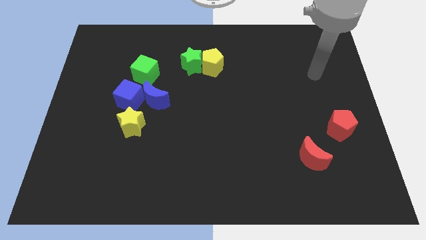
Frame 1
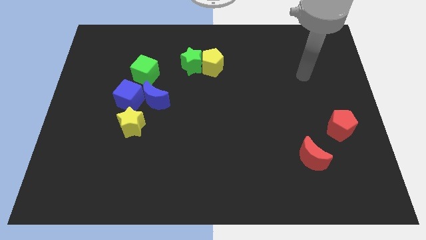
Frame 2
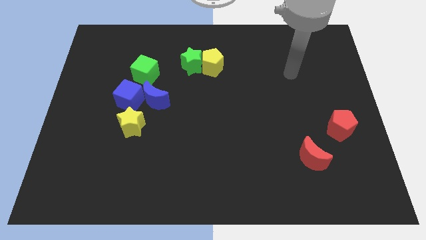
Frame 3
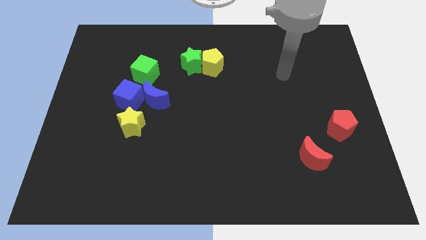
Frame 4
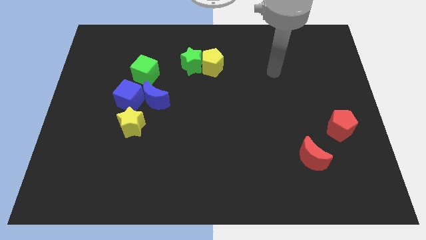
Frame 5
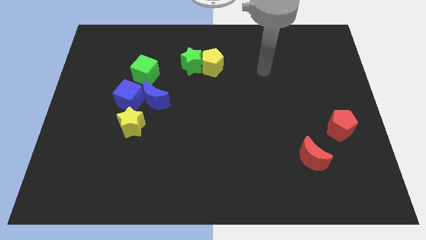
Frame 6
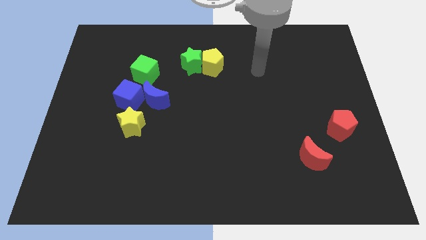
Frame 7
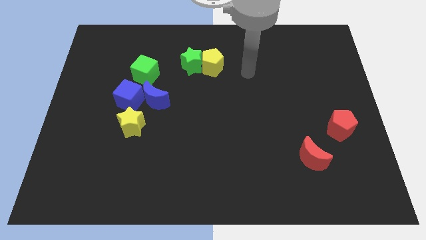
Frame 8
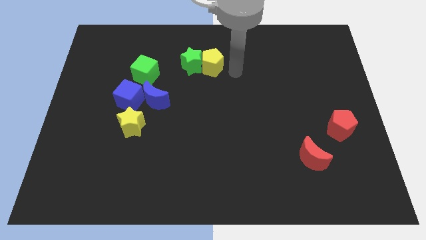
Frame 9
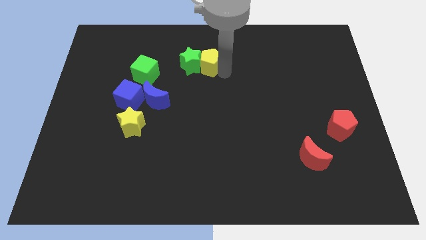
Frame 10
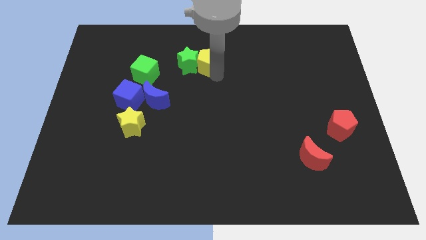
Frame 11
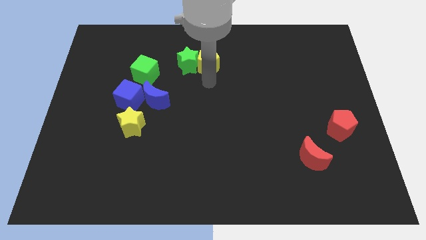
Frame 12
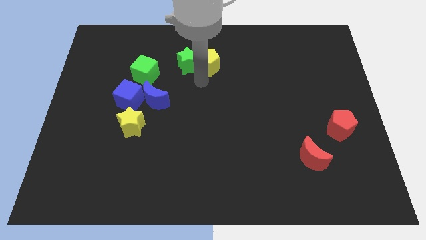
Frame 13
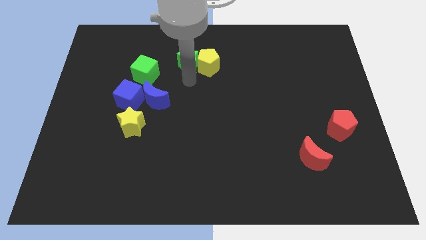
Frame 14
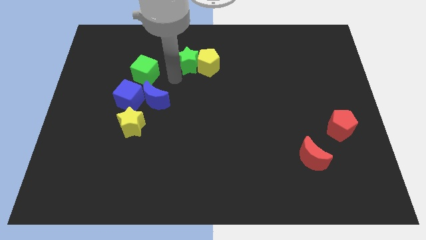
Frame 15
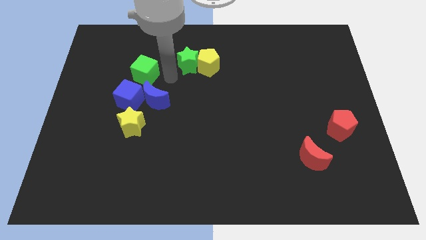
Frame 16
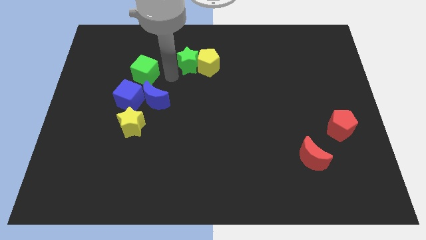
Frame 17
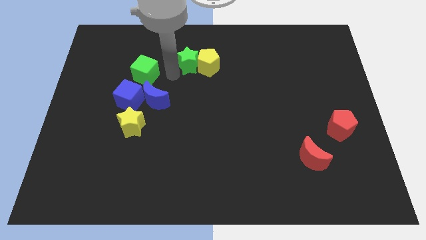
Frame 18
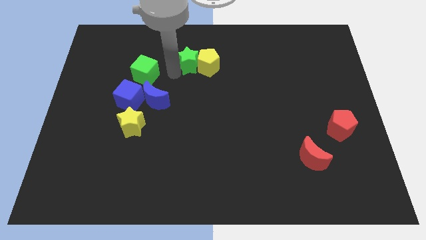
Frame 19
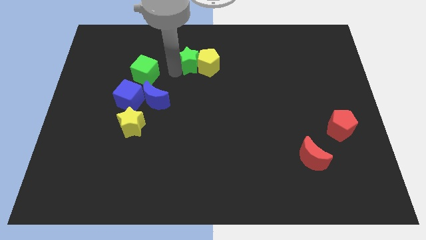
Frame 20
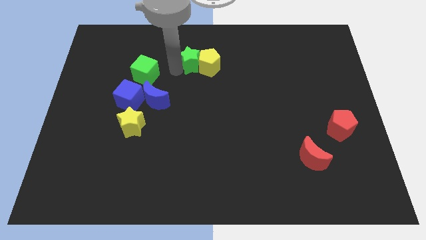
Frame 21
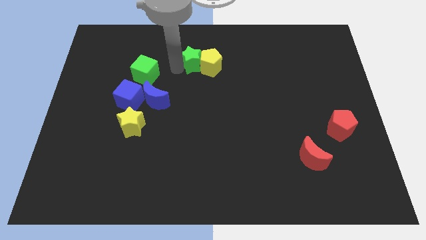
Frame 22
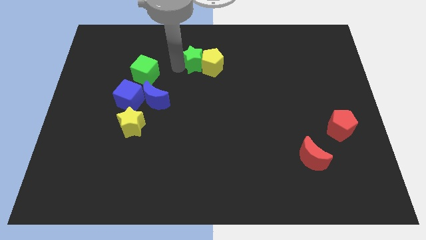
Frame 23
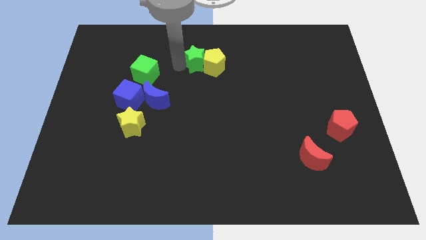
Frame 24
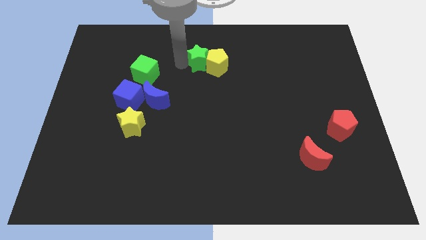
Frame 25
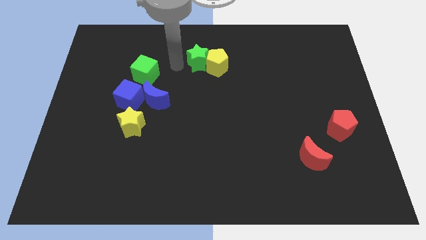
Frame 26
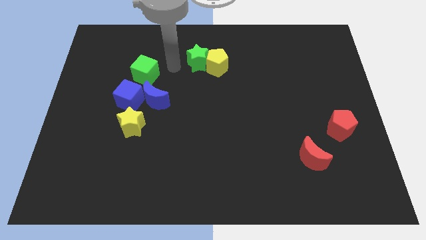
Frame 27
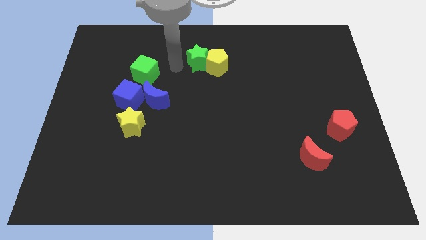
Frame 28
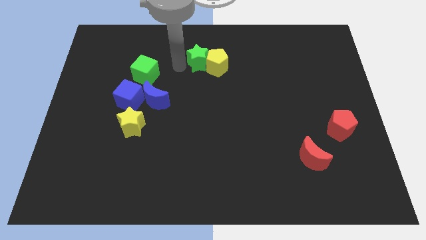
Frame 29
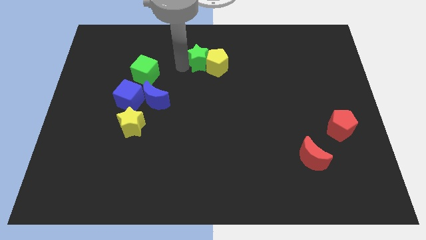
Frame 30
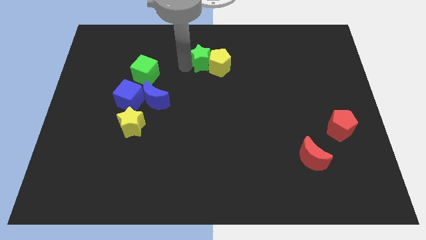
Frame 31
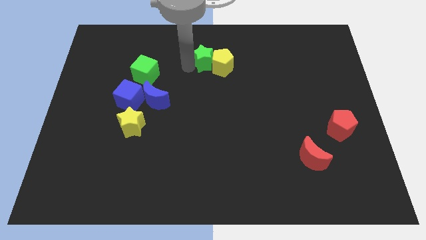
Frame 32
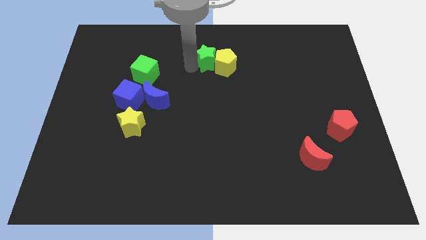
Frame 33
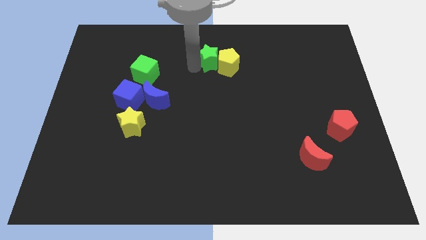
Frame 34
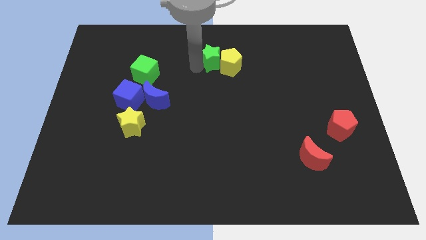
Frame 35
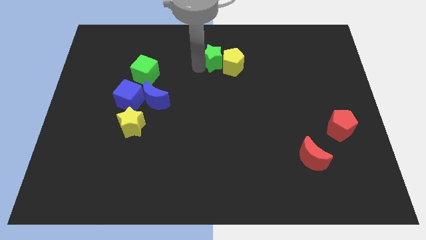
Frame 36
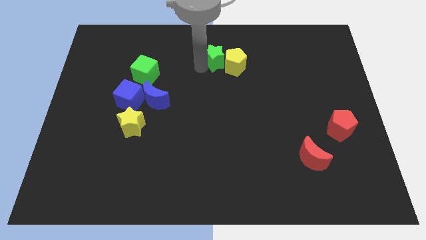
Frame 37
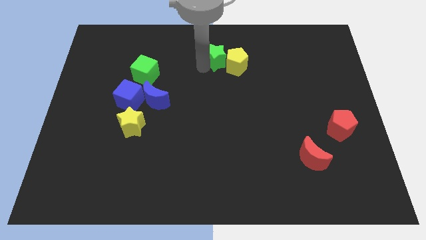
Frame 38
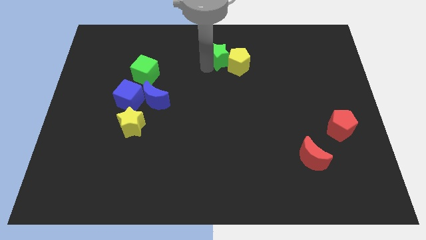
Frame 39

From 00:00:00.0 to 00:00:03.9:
move the green star somewhat right

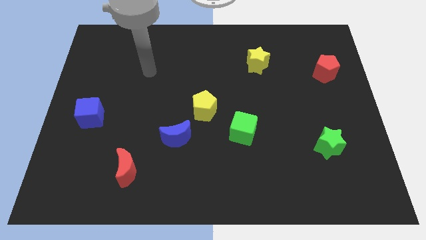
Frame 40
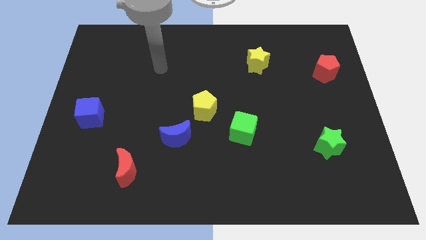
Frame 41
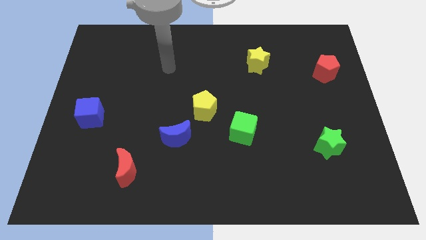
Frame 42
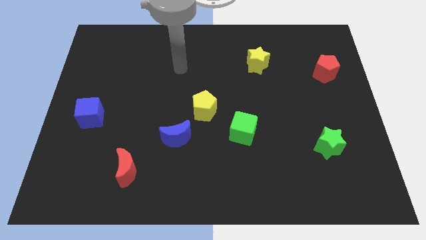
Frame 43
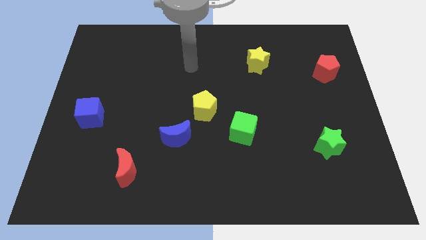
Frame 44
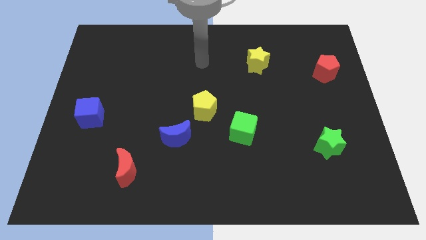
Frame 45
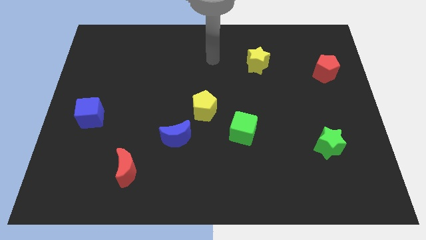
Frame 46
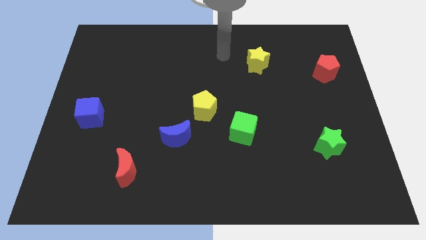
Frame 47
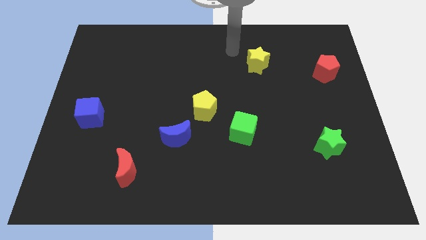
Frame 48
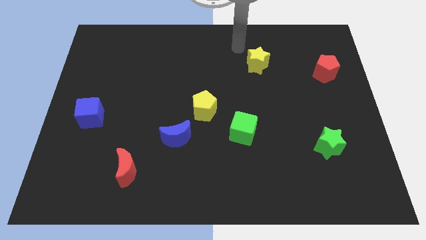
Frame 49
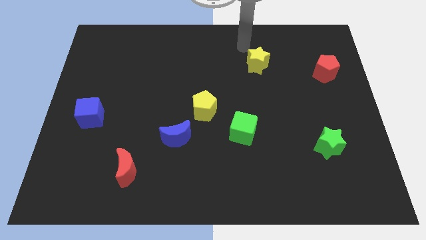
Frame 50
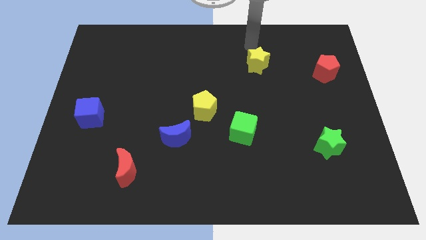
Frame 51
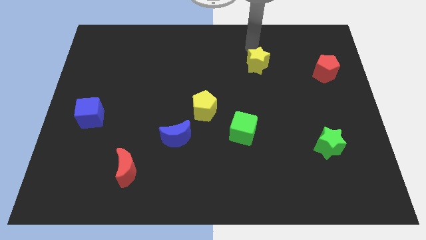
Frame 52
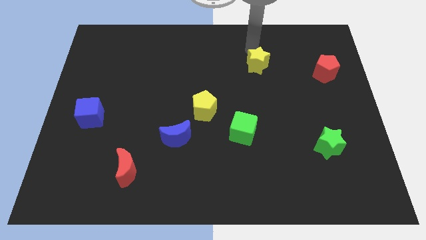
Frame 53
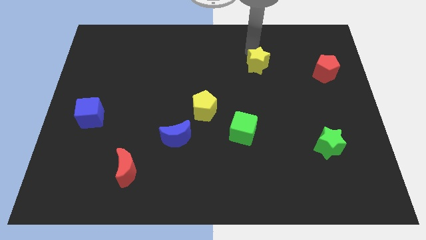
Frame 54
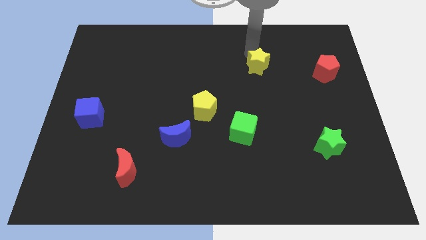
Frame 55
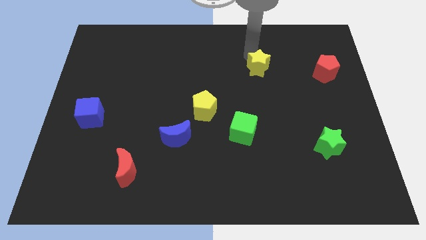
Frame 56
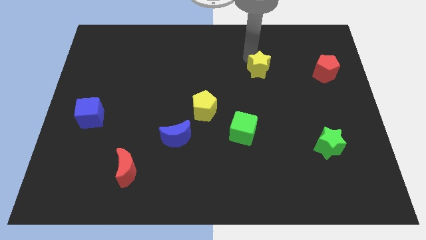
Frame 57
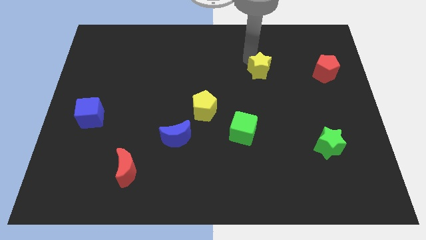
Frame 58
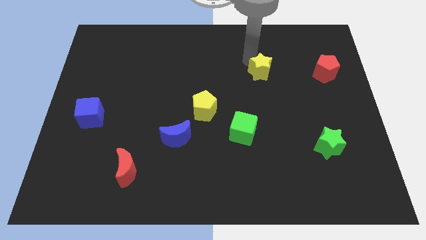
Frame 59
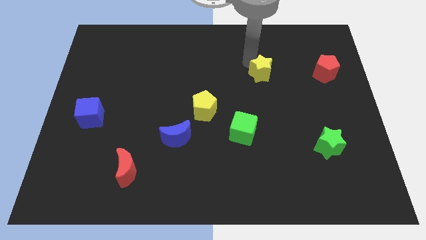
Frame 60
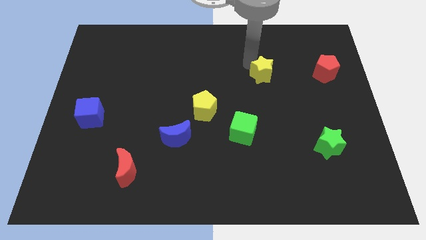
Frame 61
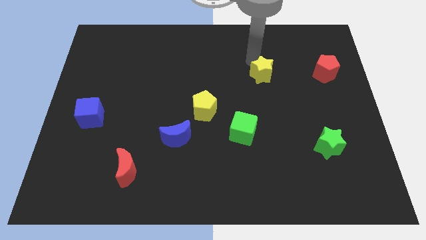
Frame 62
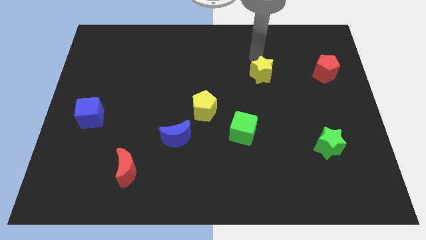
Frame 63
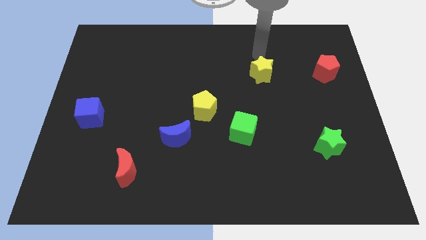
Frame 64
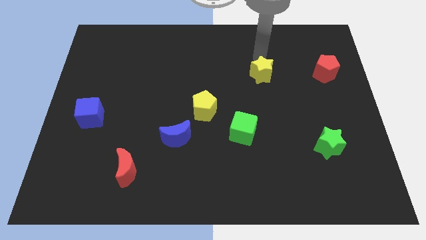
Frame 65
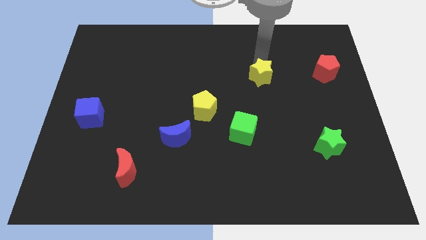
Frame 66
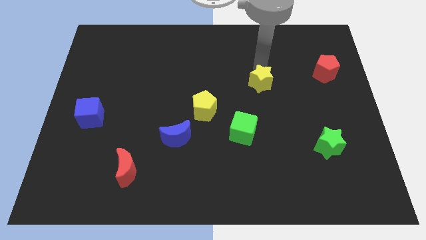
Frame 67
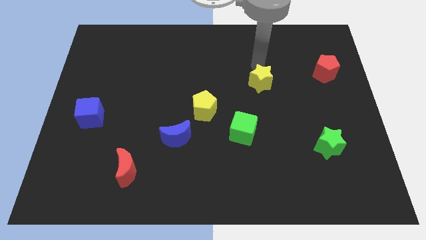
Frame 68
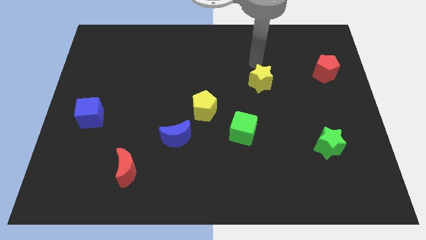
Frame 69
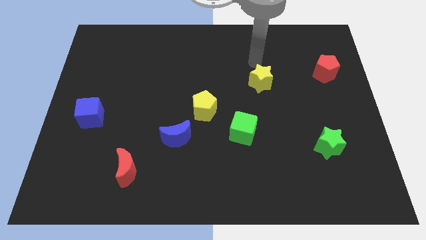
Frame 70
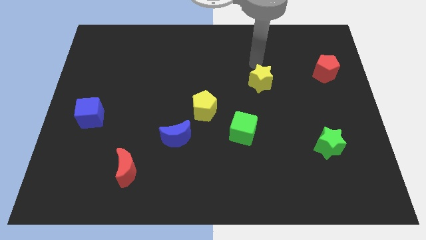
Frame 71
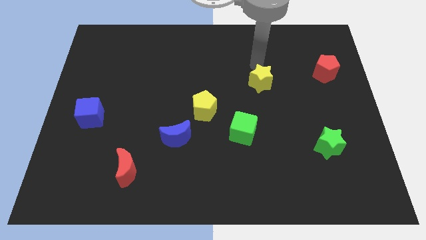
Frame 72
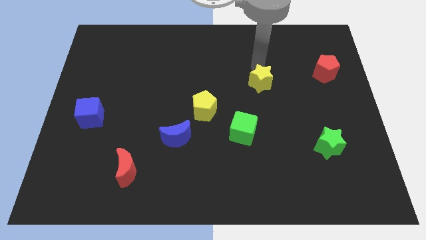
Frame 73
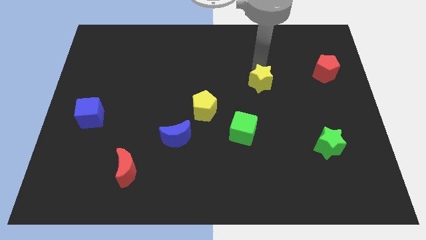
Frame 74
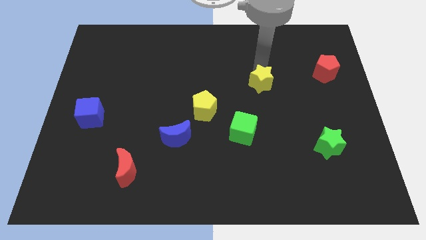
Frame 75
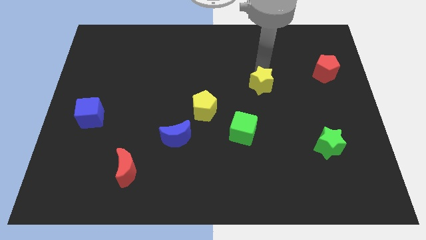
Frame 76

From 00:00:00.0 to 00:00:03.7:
move the yellow star a bit down

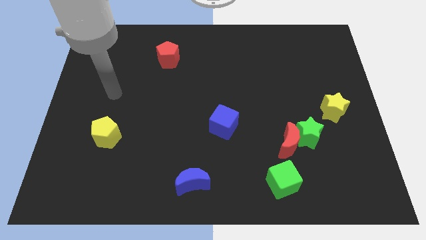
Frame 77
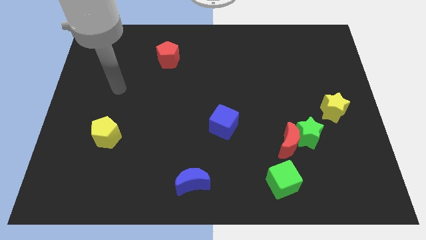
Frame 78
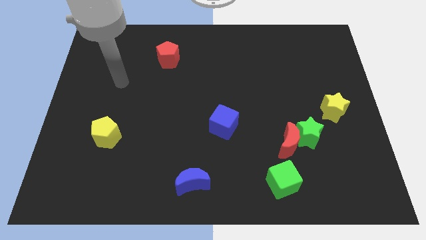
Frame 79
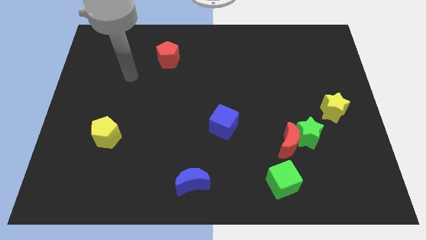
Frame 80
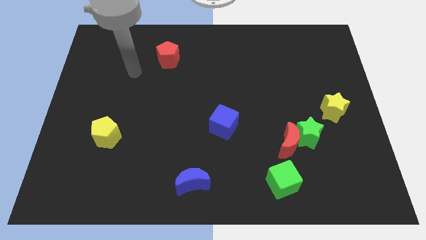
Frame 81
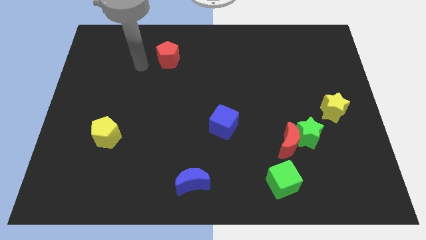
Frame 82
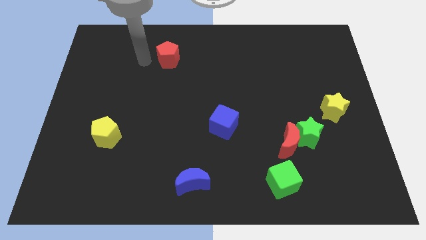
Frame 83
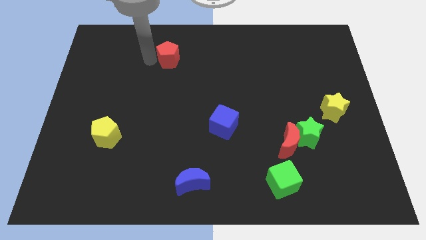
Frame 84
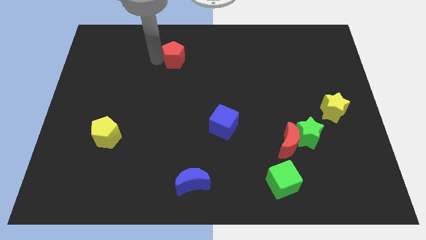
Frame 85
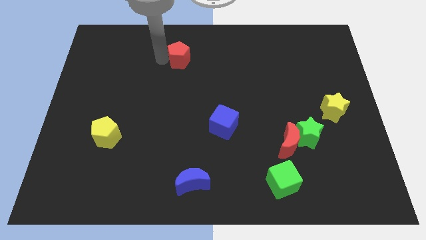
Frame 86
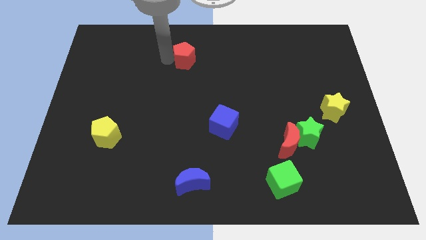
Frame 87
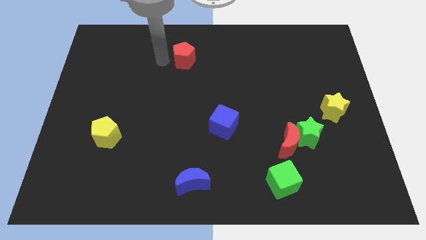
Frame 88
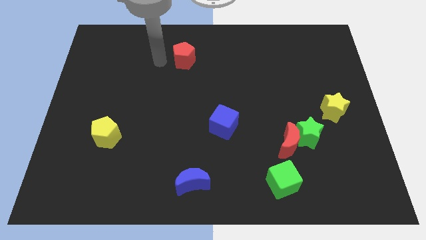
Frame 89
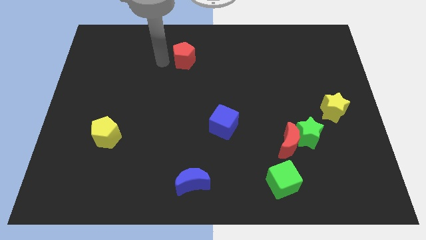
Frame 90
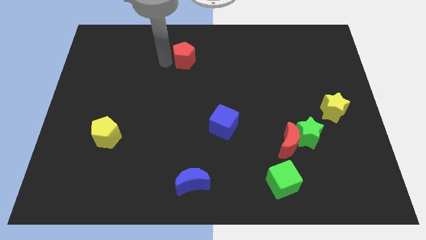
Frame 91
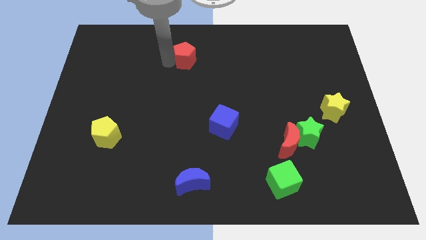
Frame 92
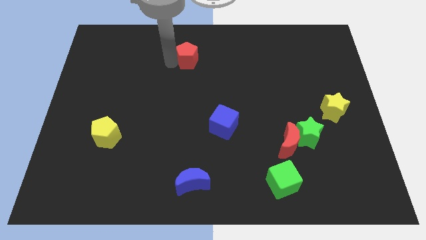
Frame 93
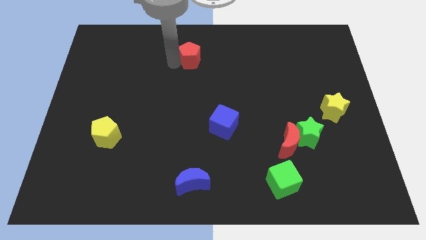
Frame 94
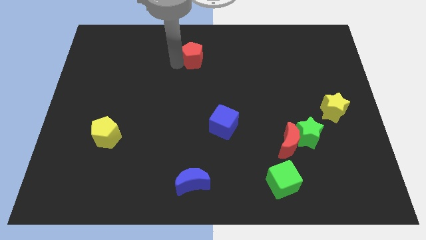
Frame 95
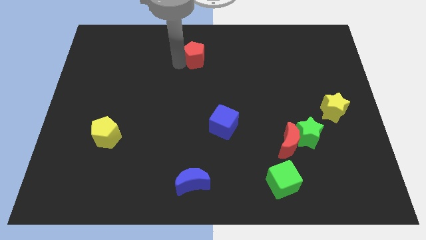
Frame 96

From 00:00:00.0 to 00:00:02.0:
slide the red pentagon a little bit to the right
